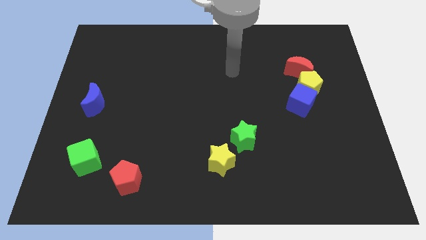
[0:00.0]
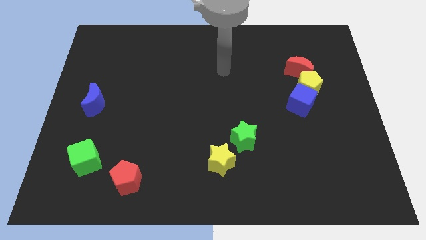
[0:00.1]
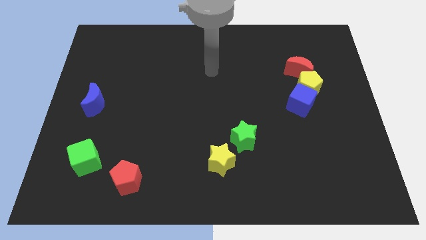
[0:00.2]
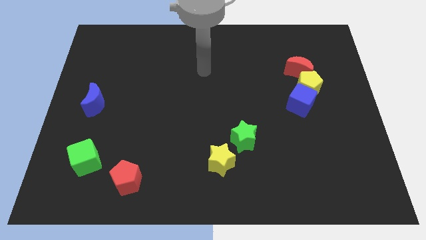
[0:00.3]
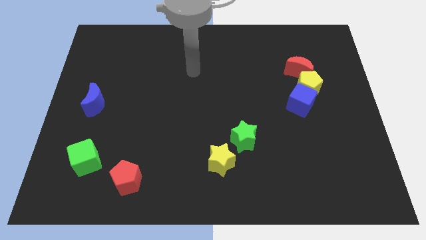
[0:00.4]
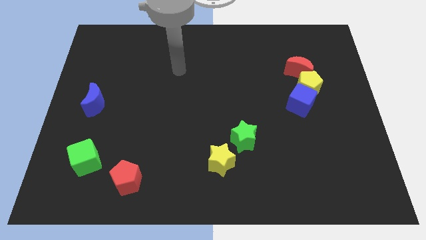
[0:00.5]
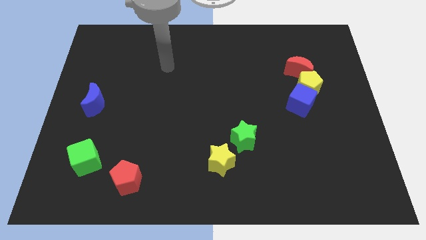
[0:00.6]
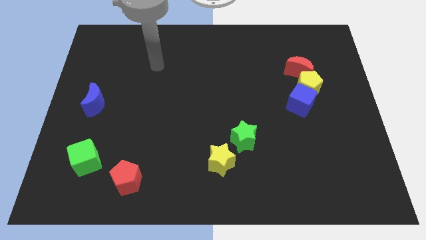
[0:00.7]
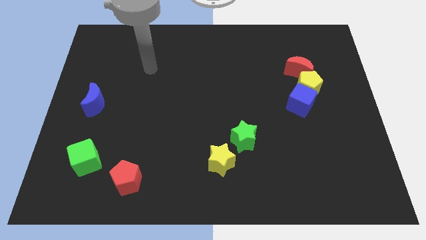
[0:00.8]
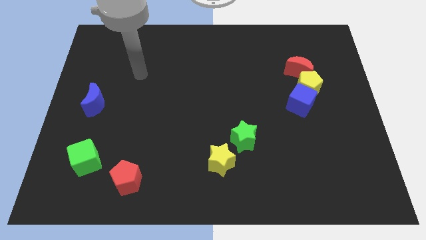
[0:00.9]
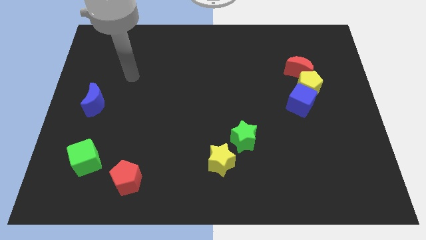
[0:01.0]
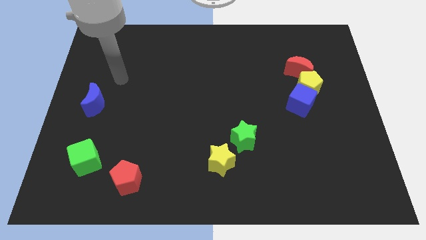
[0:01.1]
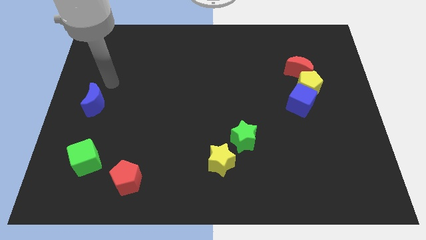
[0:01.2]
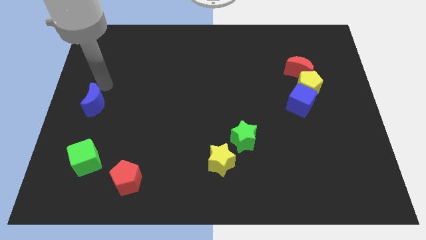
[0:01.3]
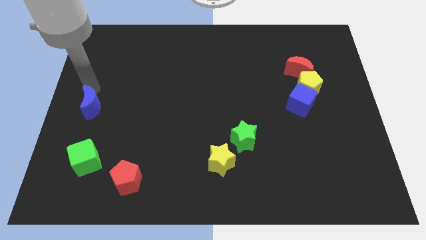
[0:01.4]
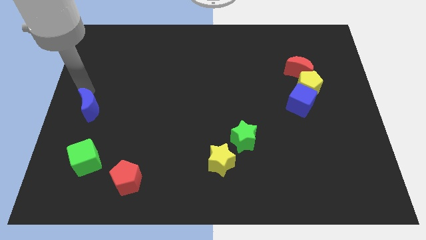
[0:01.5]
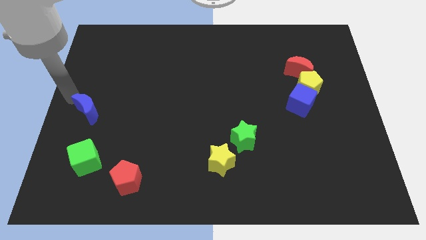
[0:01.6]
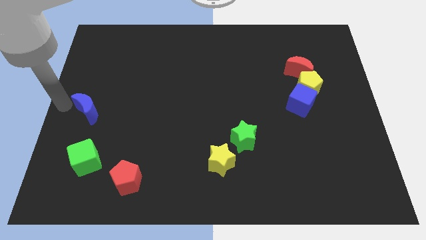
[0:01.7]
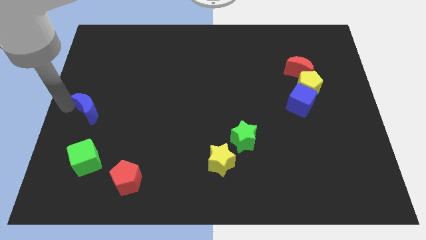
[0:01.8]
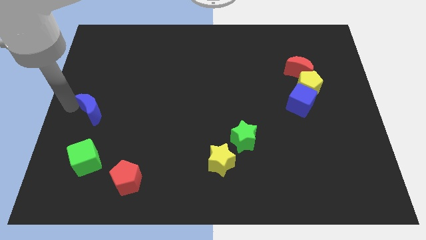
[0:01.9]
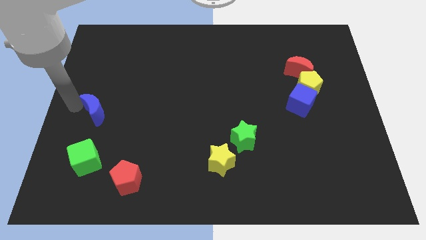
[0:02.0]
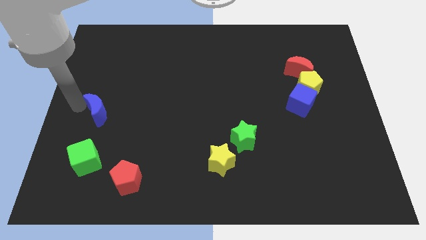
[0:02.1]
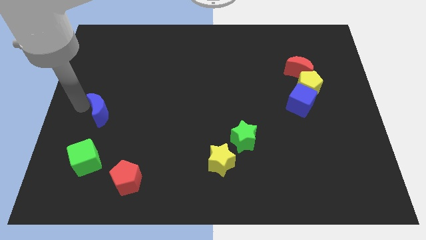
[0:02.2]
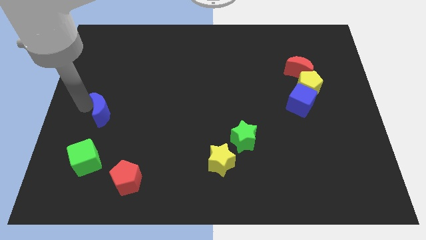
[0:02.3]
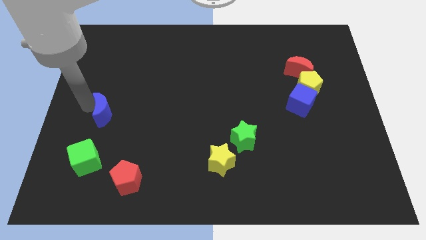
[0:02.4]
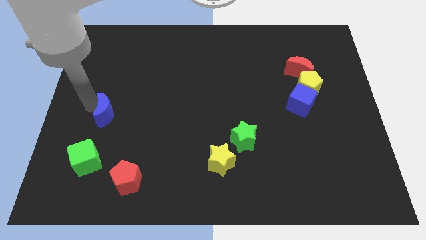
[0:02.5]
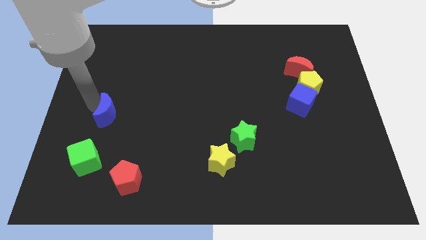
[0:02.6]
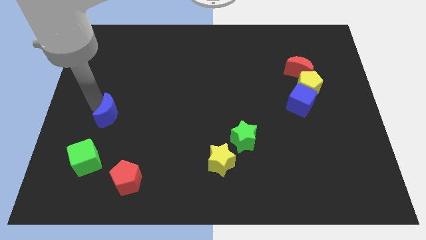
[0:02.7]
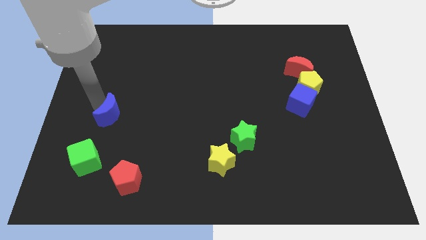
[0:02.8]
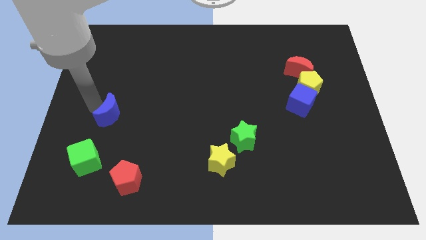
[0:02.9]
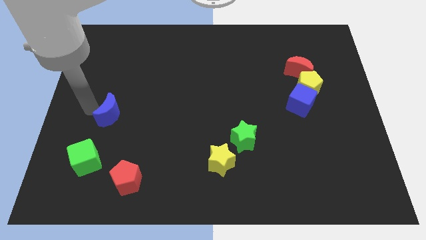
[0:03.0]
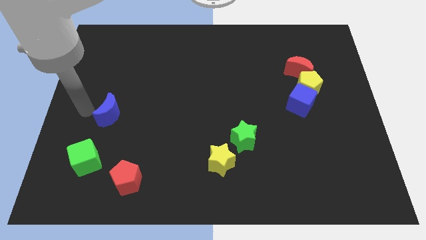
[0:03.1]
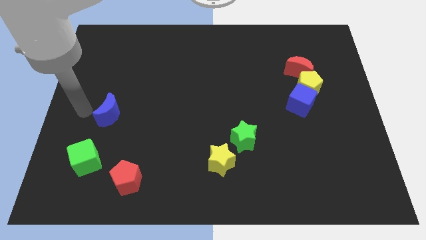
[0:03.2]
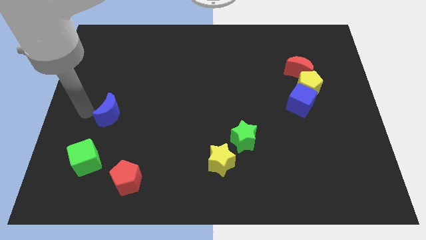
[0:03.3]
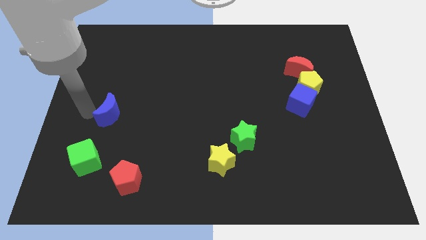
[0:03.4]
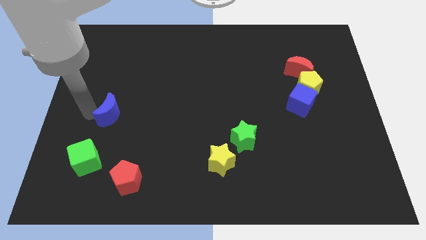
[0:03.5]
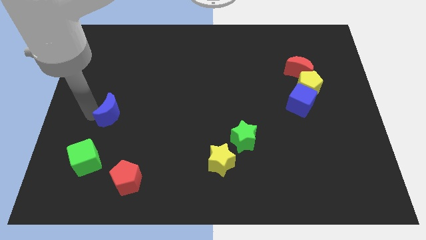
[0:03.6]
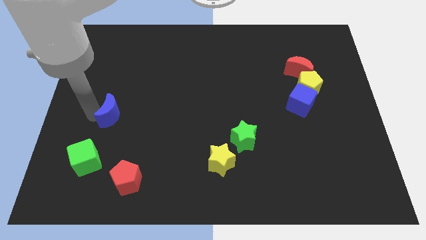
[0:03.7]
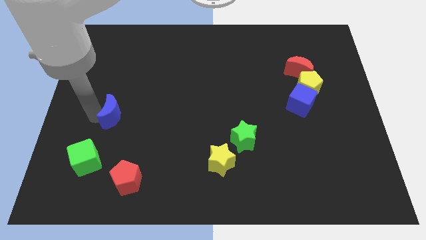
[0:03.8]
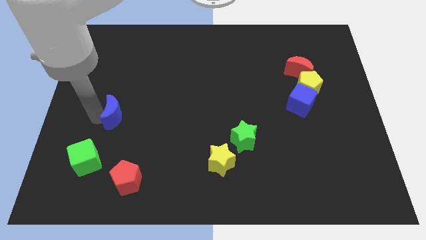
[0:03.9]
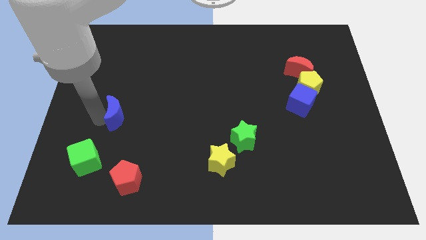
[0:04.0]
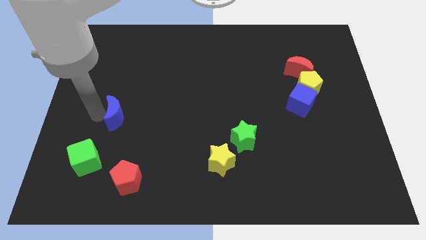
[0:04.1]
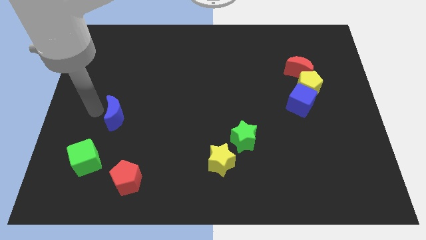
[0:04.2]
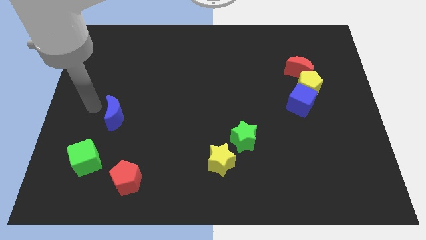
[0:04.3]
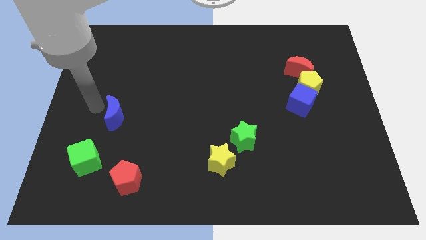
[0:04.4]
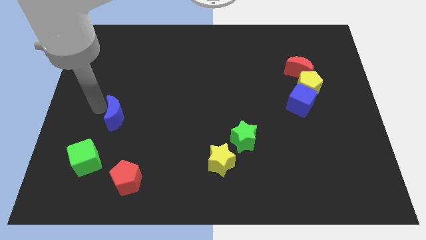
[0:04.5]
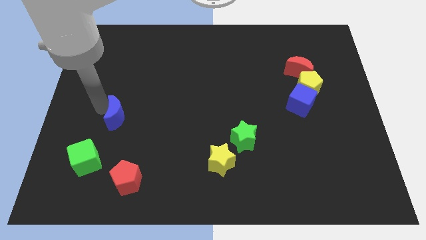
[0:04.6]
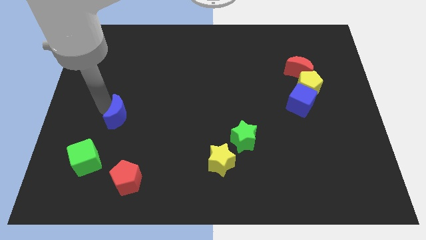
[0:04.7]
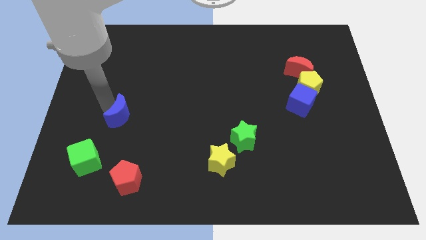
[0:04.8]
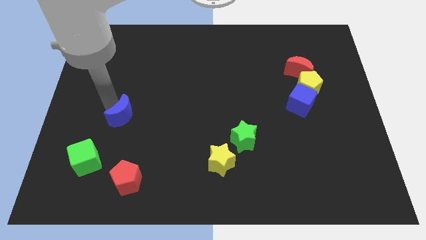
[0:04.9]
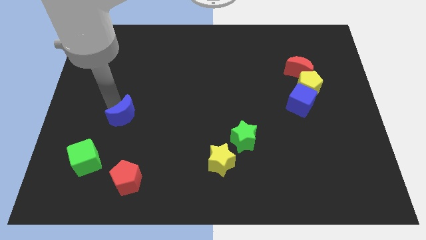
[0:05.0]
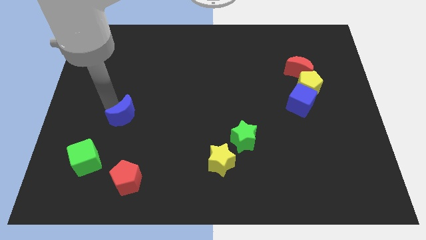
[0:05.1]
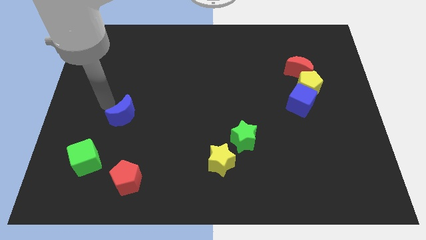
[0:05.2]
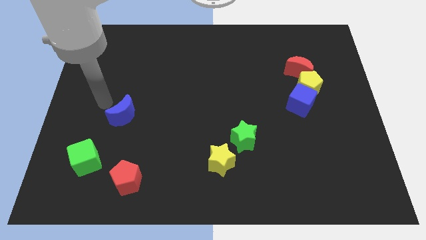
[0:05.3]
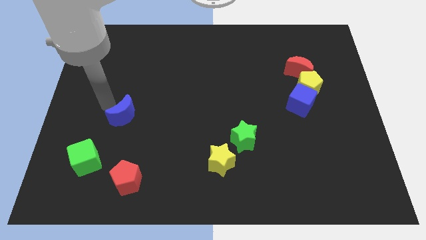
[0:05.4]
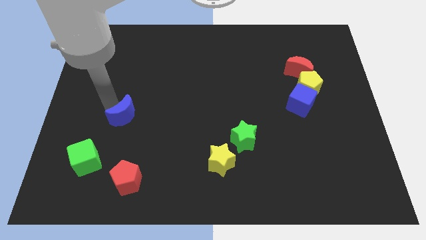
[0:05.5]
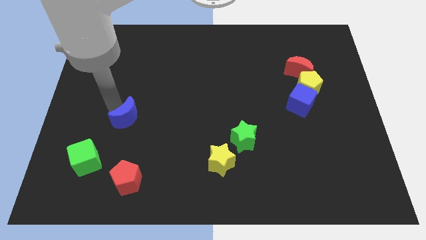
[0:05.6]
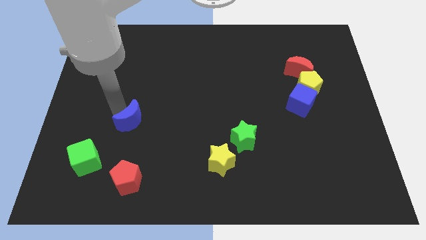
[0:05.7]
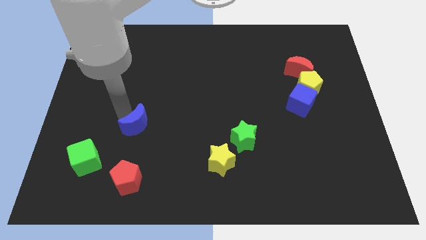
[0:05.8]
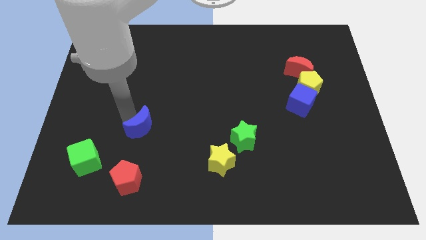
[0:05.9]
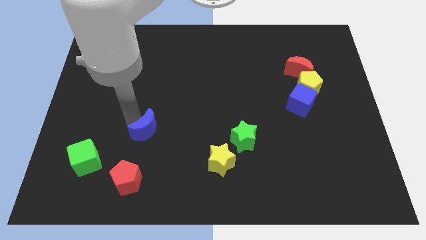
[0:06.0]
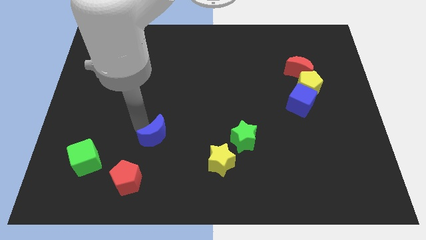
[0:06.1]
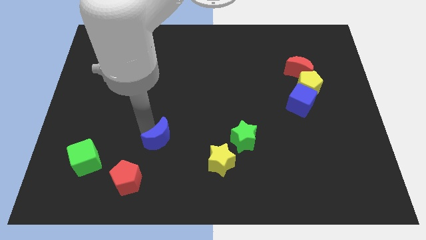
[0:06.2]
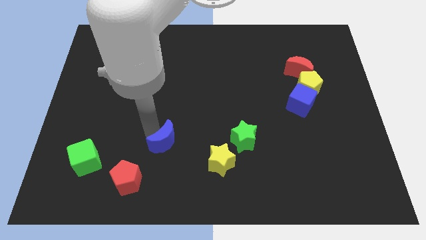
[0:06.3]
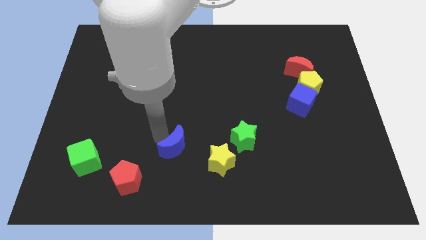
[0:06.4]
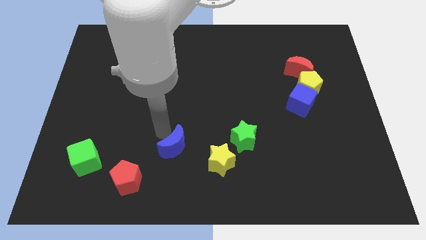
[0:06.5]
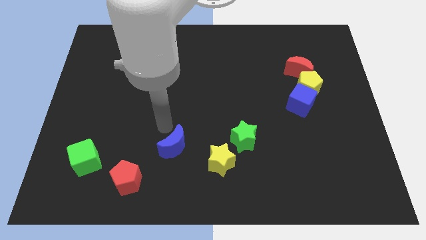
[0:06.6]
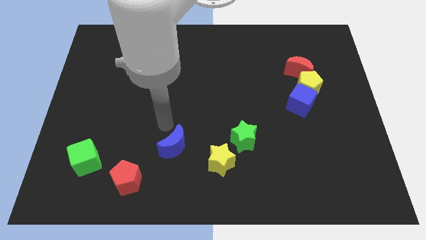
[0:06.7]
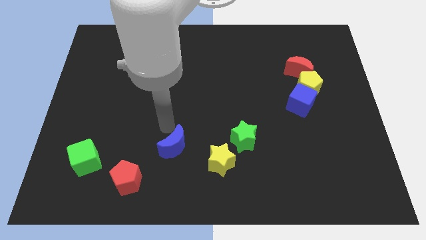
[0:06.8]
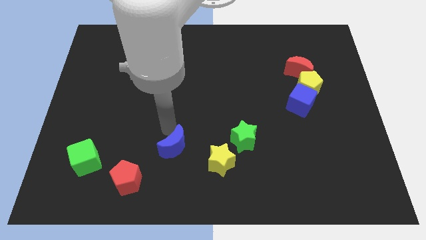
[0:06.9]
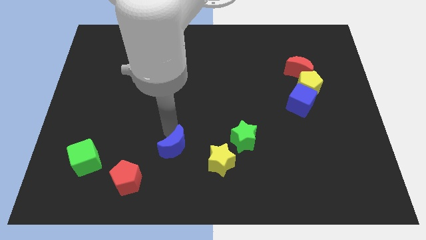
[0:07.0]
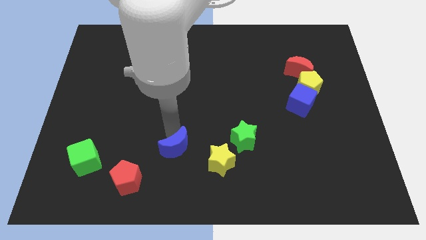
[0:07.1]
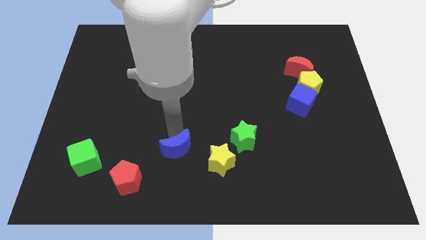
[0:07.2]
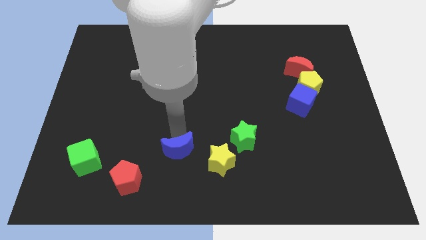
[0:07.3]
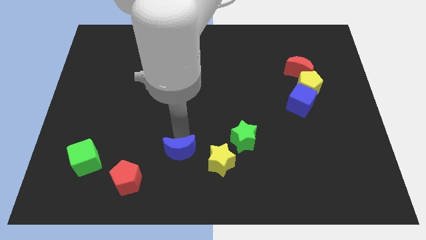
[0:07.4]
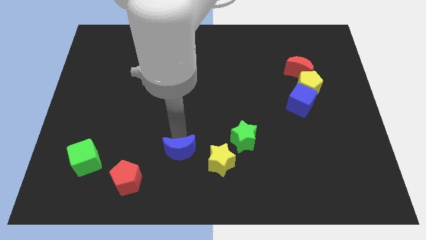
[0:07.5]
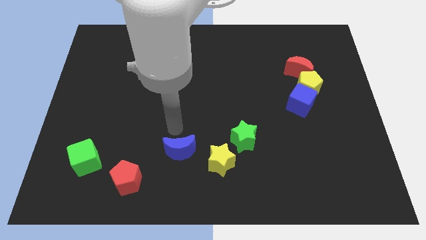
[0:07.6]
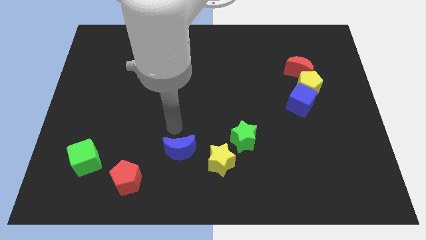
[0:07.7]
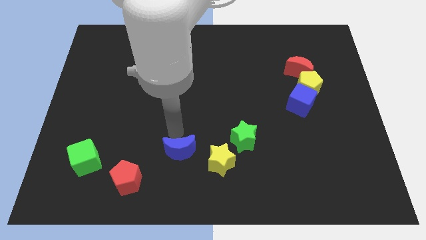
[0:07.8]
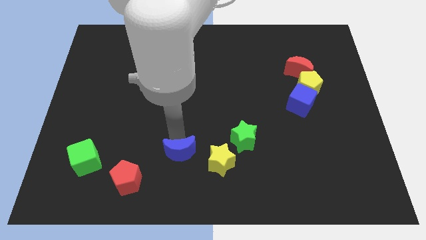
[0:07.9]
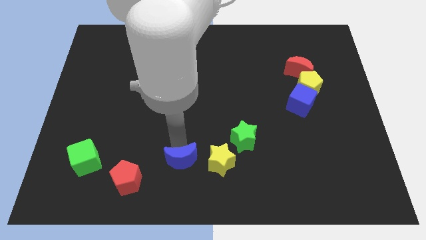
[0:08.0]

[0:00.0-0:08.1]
push the blue moon to the bottom
